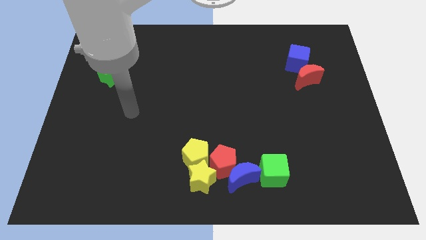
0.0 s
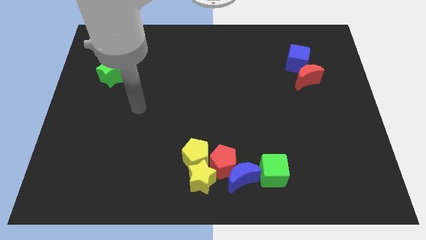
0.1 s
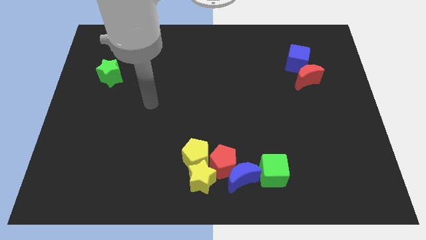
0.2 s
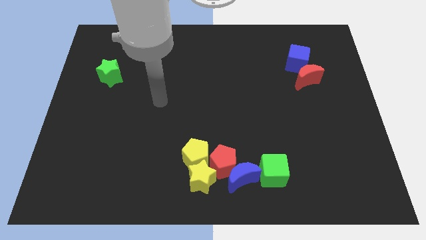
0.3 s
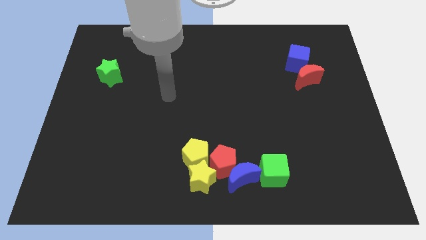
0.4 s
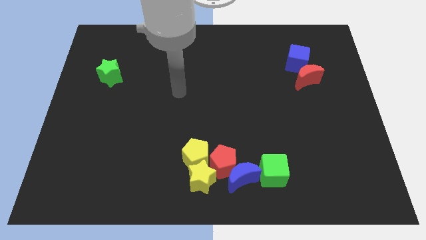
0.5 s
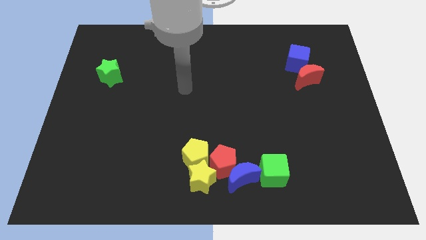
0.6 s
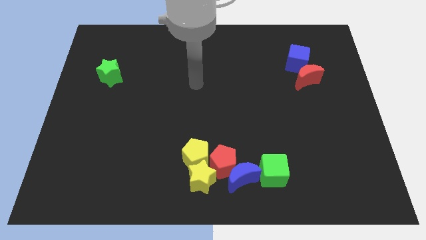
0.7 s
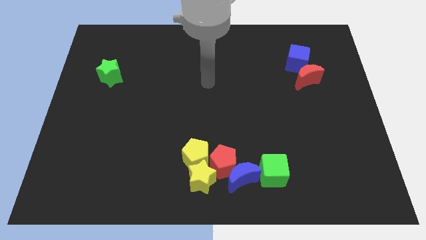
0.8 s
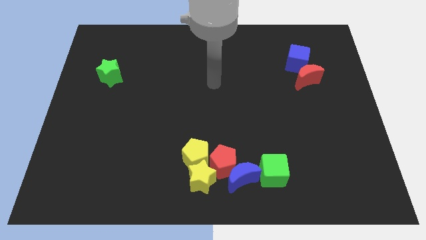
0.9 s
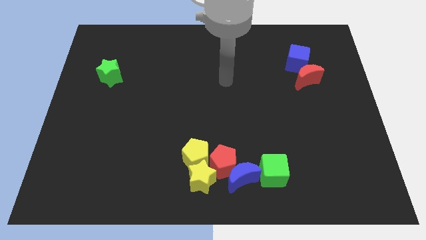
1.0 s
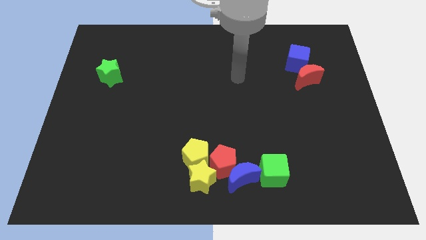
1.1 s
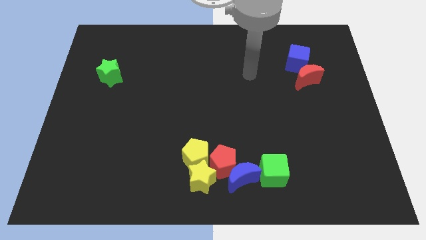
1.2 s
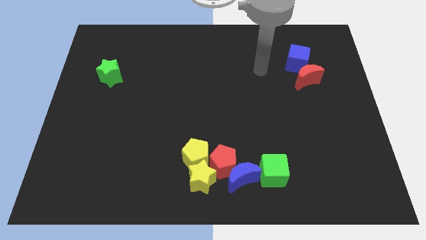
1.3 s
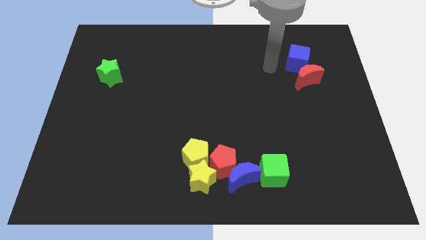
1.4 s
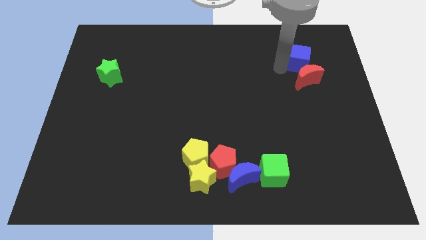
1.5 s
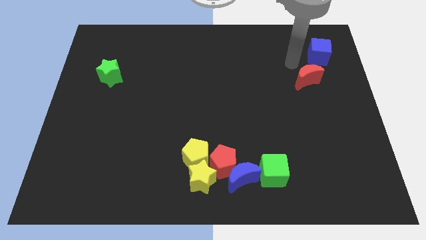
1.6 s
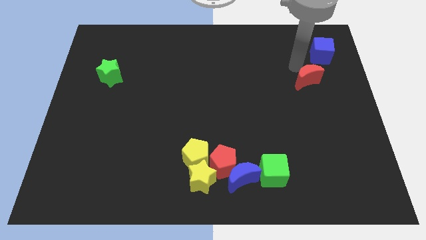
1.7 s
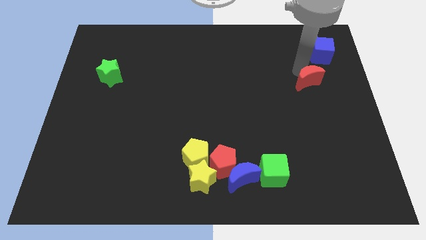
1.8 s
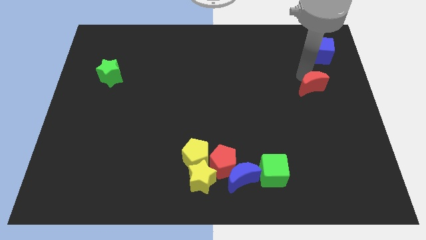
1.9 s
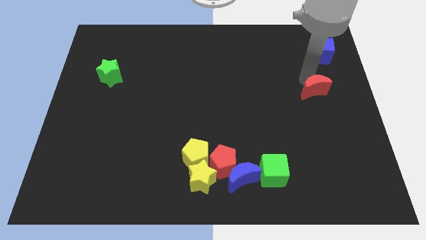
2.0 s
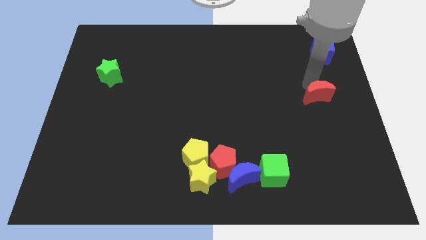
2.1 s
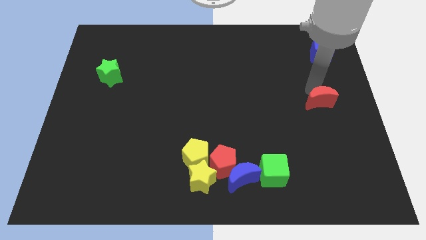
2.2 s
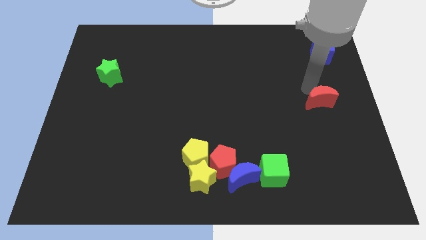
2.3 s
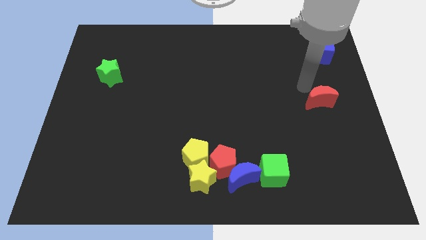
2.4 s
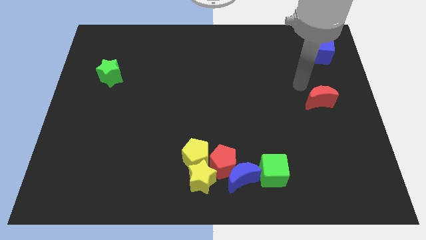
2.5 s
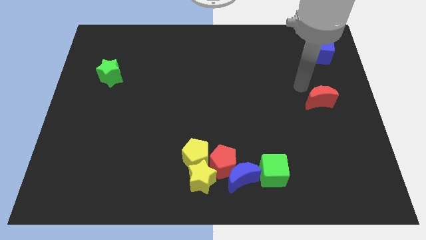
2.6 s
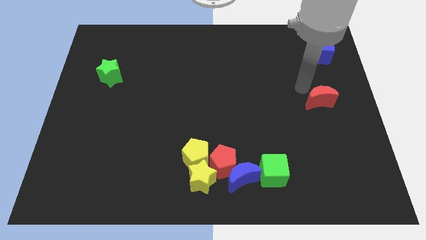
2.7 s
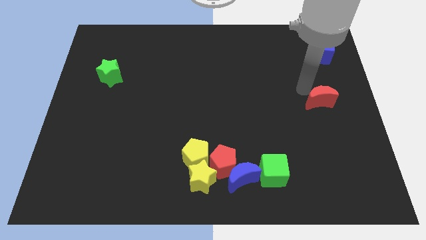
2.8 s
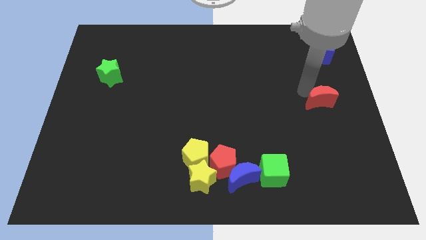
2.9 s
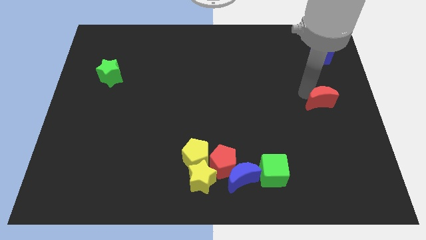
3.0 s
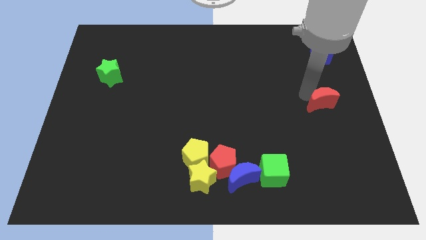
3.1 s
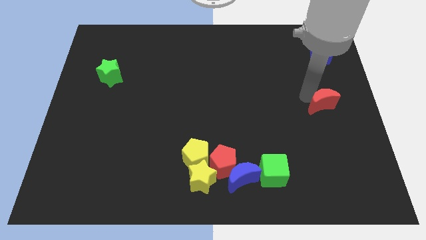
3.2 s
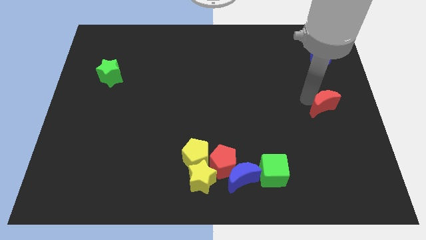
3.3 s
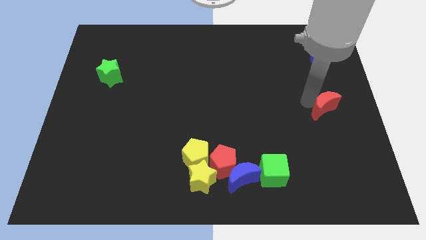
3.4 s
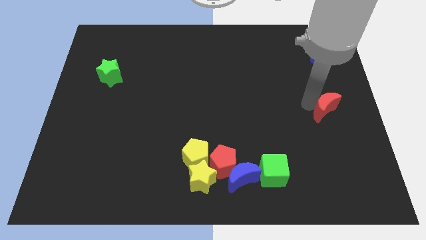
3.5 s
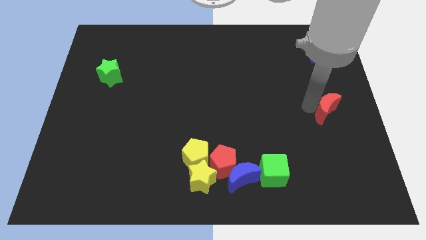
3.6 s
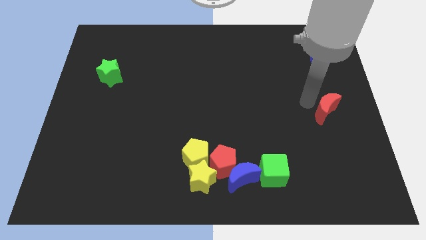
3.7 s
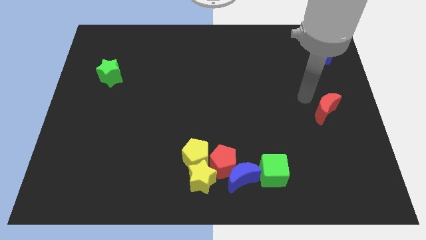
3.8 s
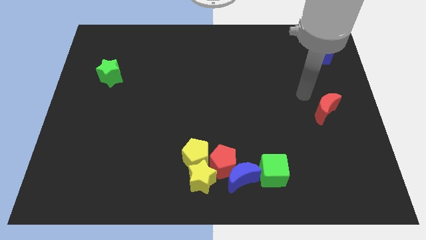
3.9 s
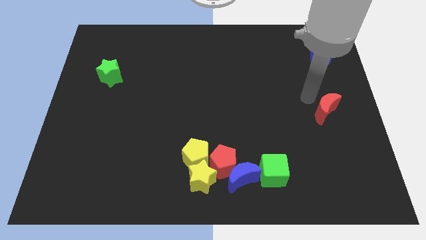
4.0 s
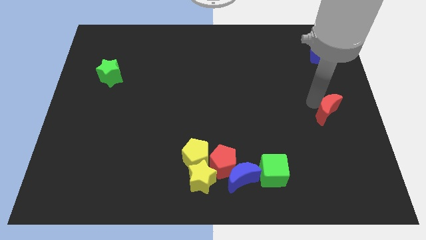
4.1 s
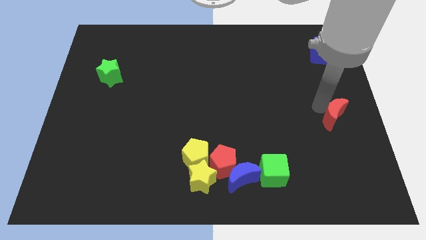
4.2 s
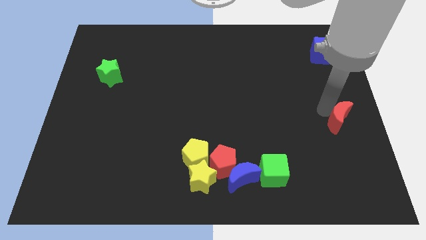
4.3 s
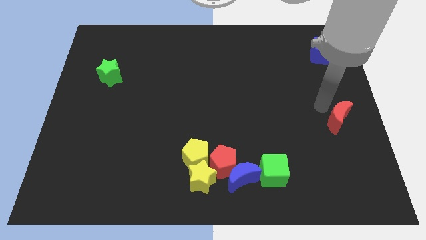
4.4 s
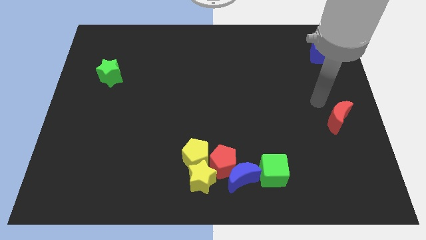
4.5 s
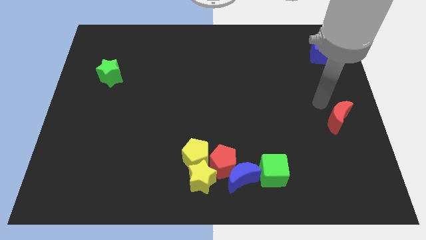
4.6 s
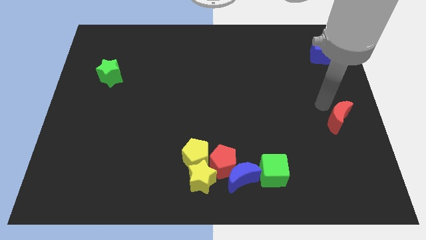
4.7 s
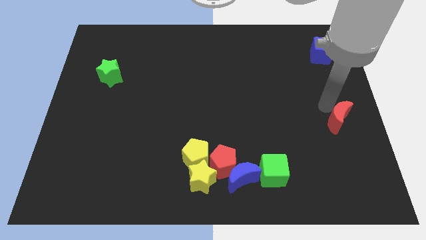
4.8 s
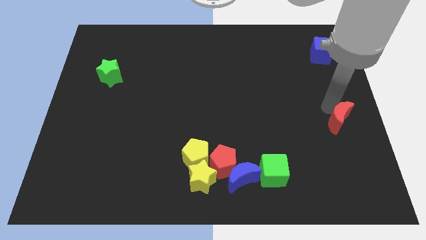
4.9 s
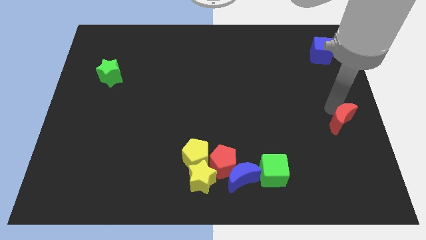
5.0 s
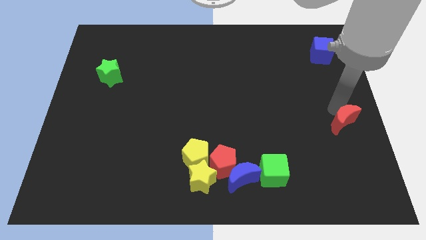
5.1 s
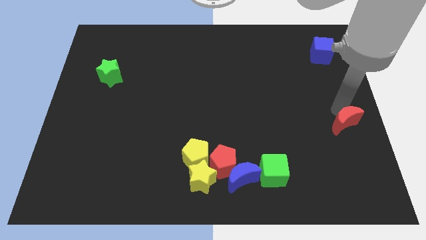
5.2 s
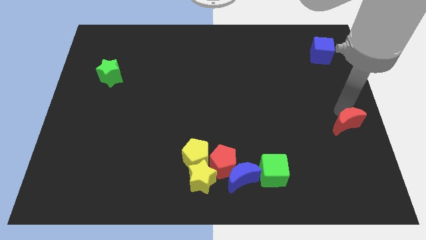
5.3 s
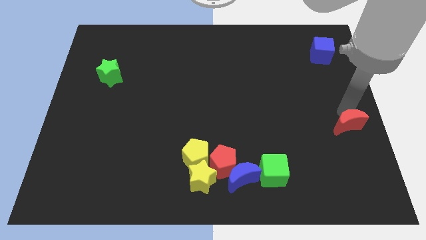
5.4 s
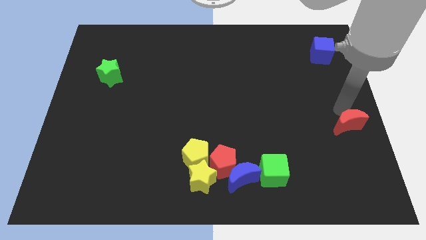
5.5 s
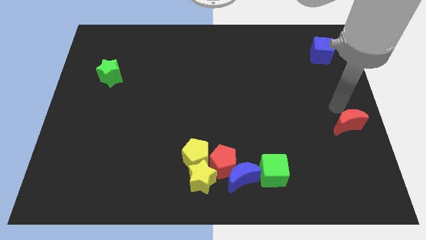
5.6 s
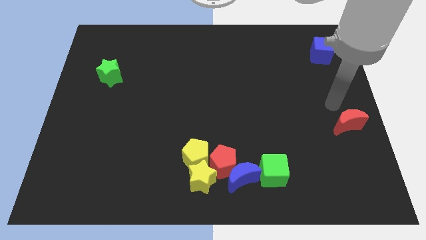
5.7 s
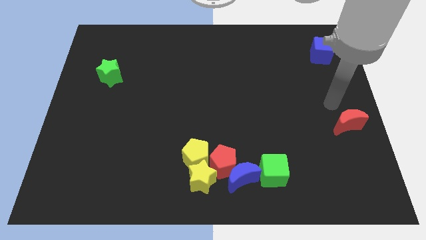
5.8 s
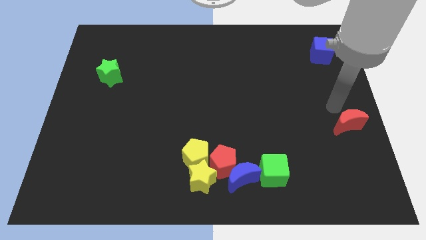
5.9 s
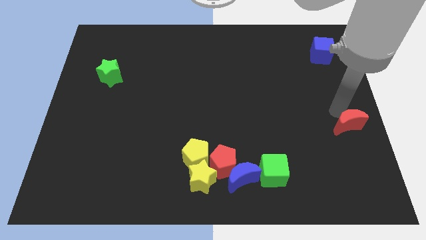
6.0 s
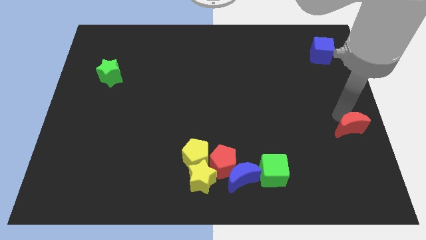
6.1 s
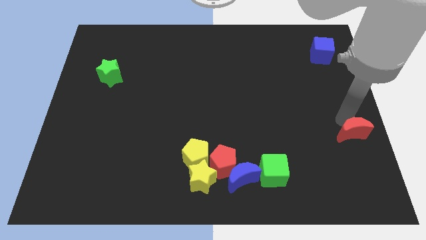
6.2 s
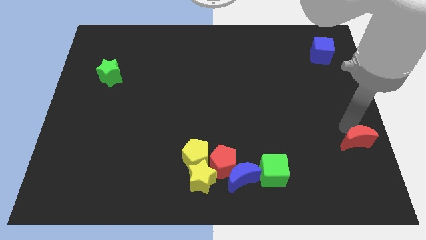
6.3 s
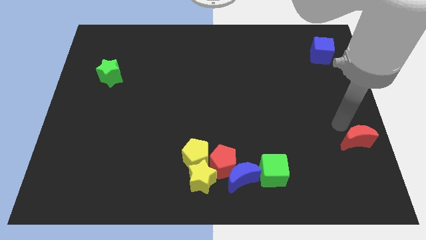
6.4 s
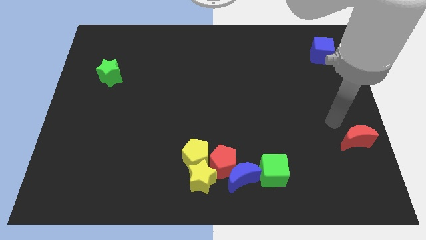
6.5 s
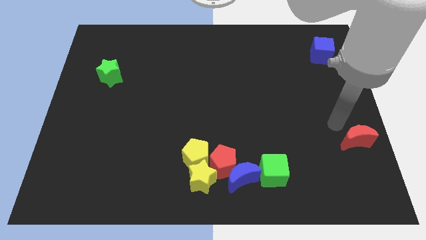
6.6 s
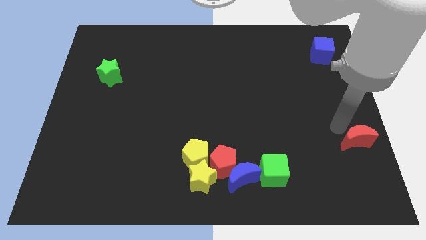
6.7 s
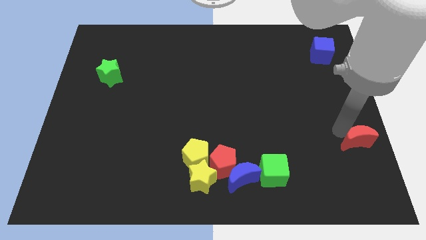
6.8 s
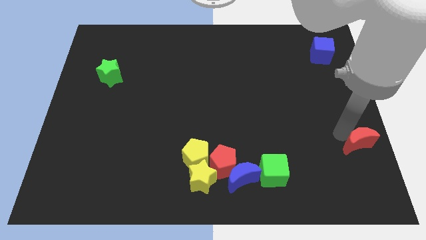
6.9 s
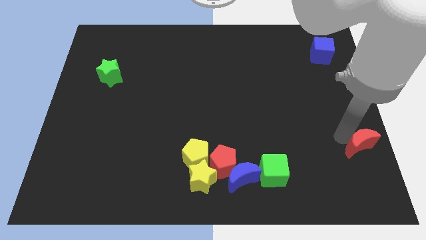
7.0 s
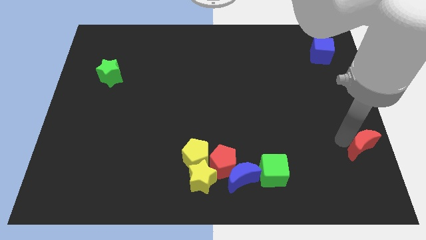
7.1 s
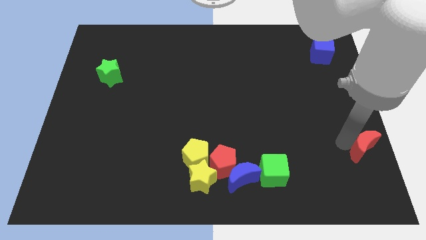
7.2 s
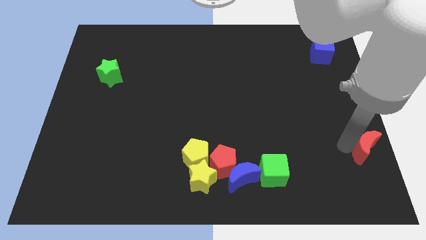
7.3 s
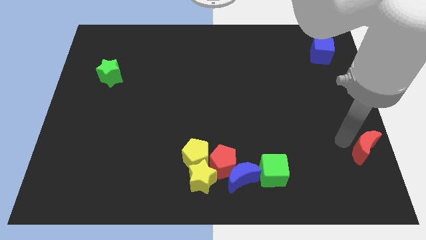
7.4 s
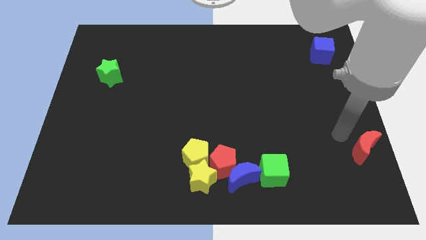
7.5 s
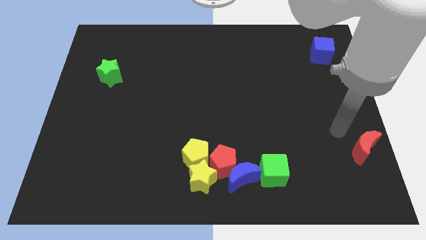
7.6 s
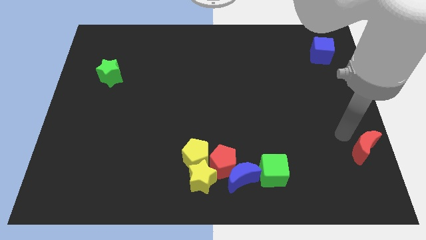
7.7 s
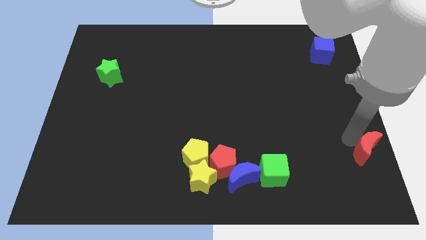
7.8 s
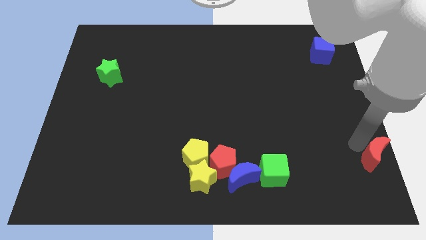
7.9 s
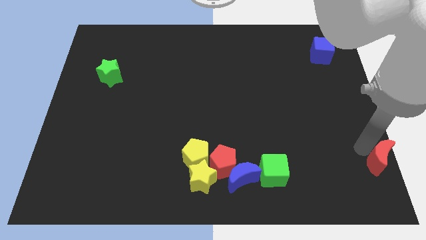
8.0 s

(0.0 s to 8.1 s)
put the red moon to the bottom right
